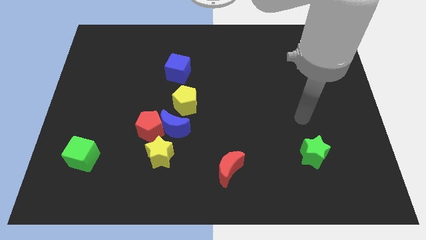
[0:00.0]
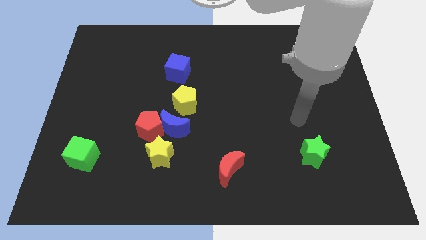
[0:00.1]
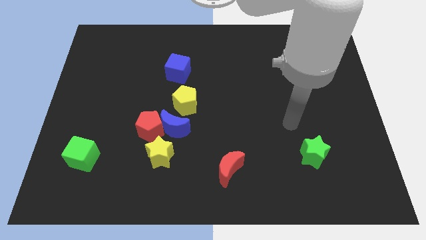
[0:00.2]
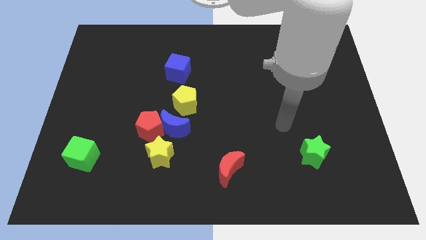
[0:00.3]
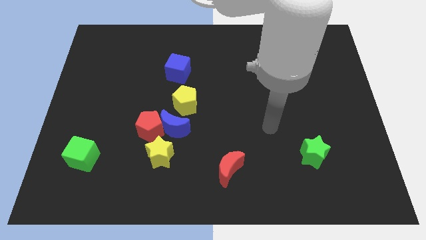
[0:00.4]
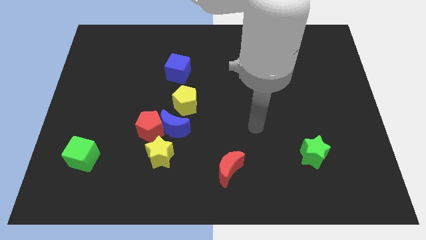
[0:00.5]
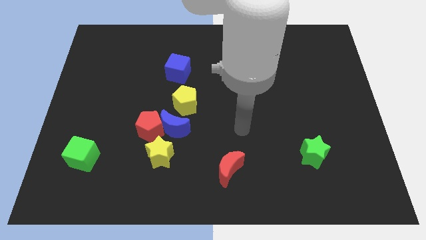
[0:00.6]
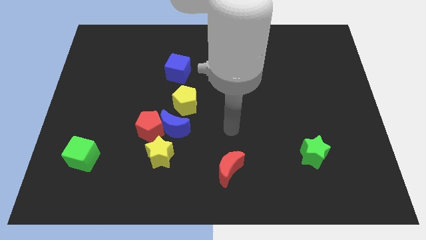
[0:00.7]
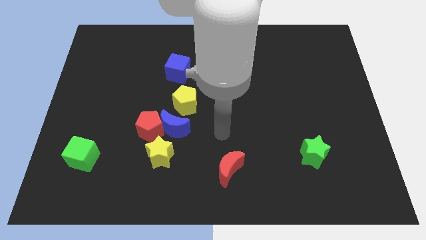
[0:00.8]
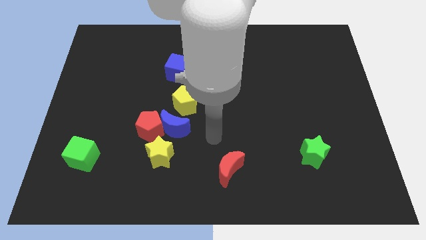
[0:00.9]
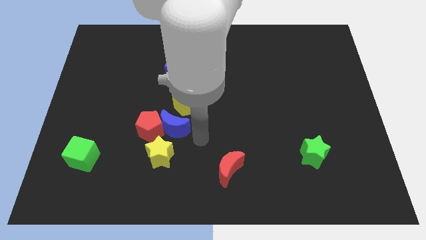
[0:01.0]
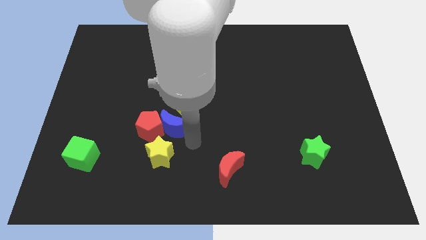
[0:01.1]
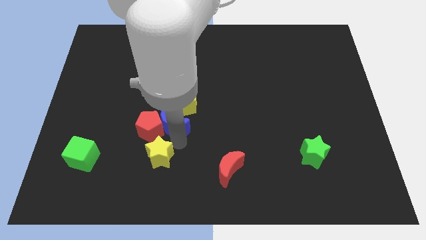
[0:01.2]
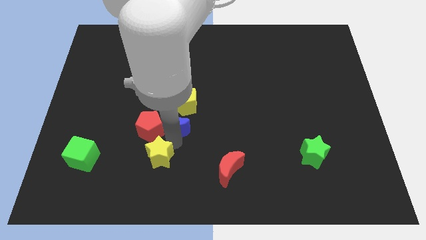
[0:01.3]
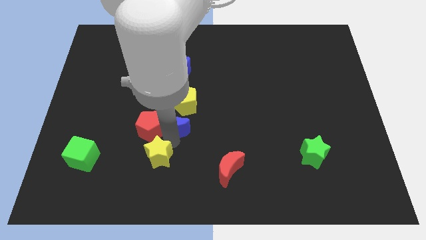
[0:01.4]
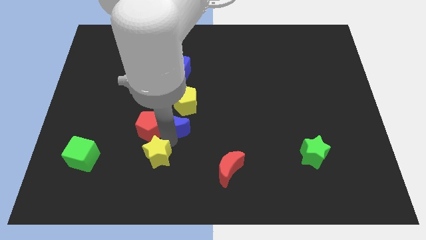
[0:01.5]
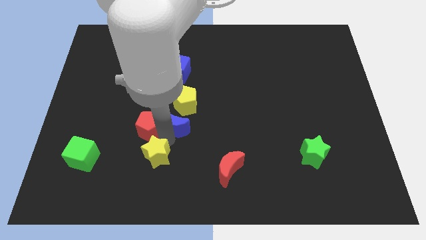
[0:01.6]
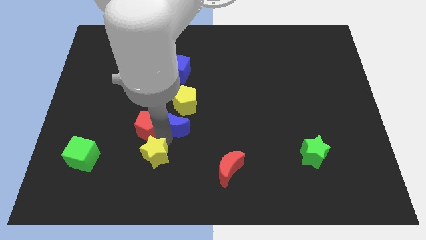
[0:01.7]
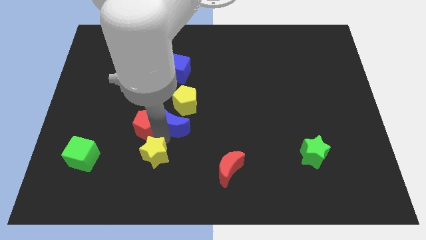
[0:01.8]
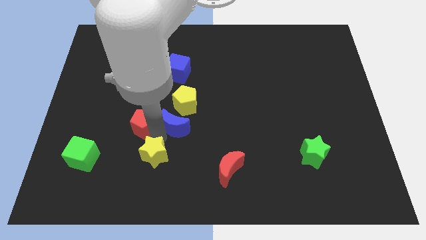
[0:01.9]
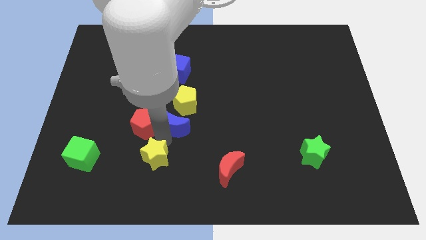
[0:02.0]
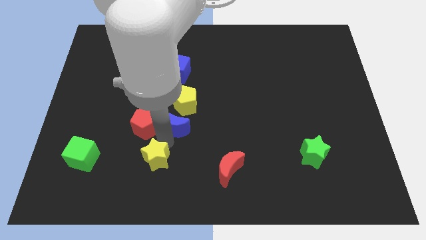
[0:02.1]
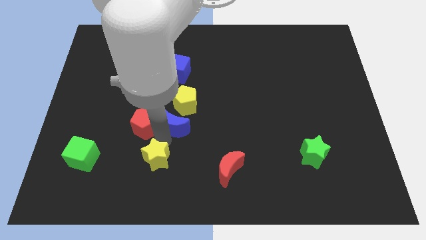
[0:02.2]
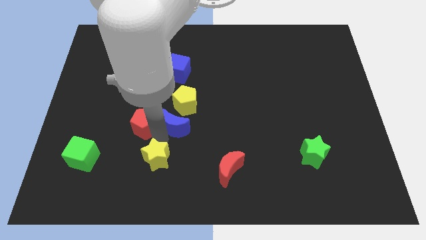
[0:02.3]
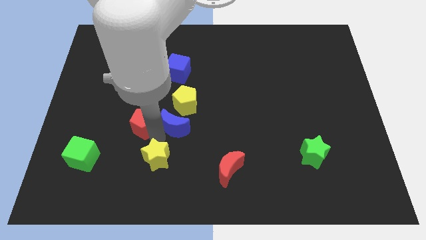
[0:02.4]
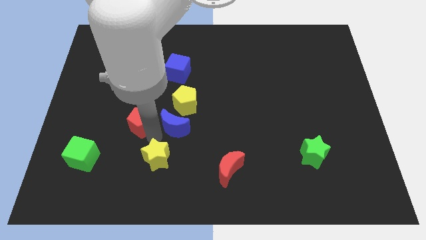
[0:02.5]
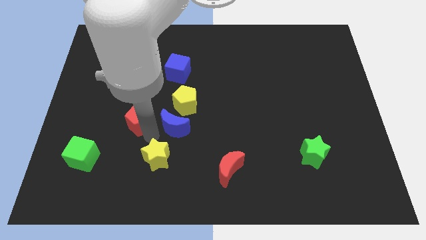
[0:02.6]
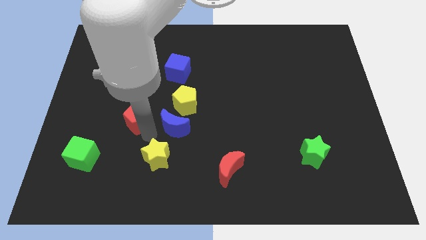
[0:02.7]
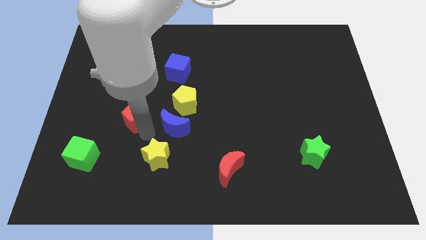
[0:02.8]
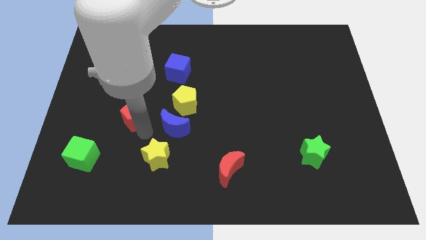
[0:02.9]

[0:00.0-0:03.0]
move the red pentagon away from the blue moon and yellow star

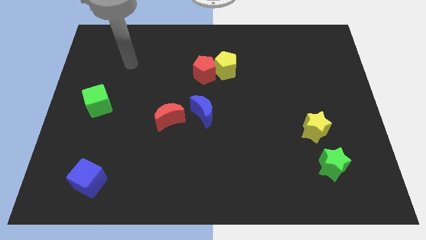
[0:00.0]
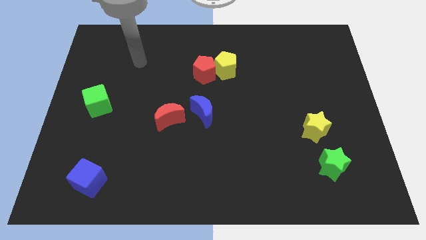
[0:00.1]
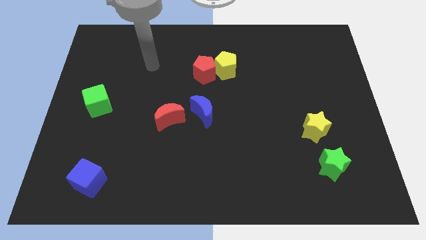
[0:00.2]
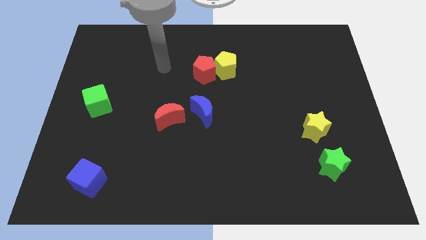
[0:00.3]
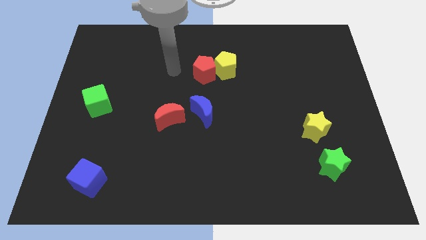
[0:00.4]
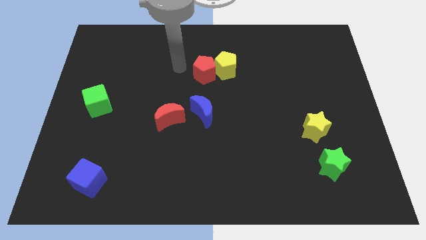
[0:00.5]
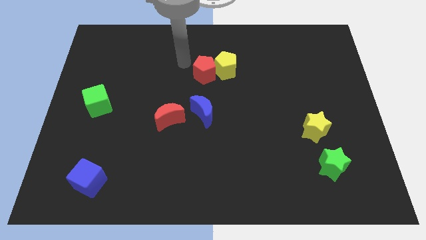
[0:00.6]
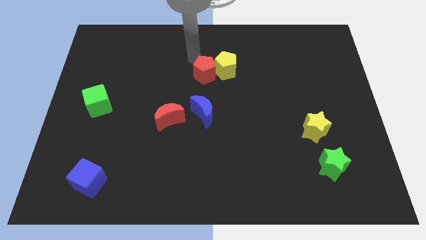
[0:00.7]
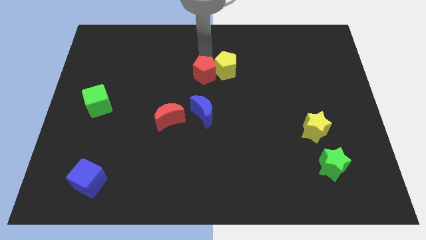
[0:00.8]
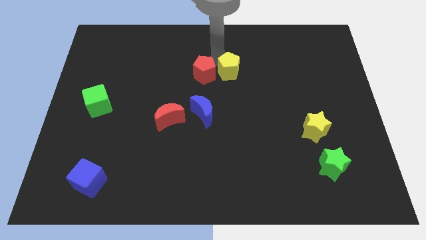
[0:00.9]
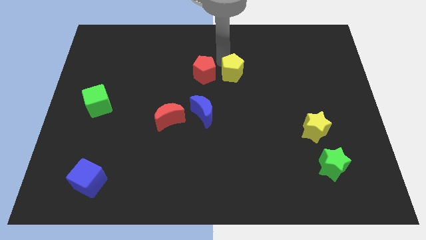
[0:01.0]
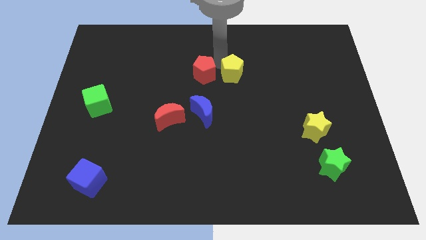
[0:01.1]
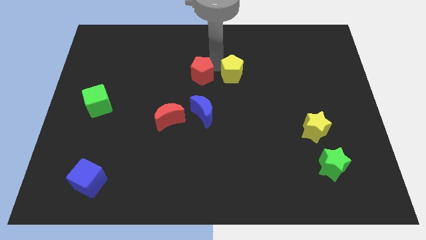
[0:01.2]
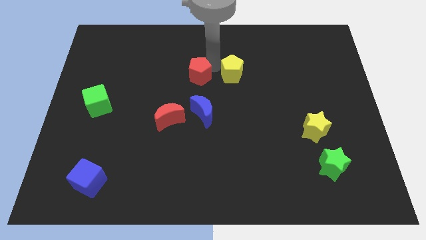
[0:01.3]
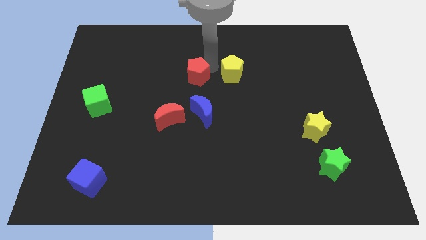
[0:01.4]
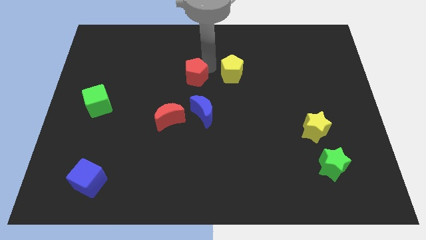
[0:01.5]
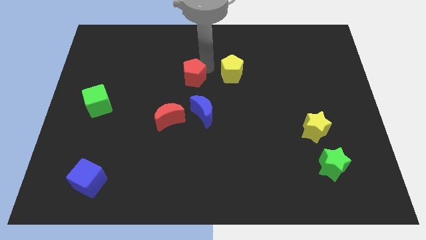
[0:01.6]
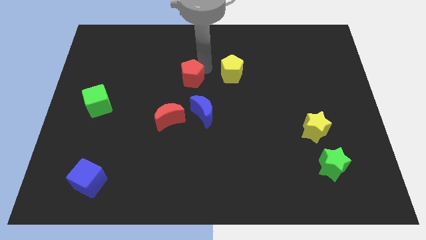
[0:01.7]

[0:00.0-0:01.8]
separate the red pentagon from the yellow pentagon

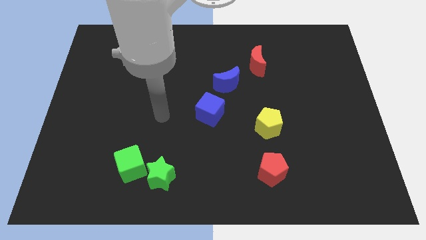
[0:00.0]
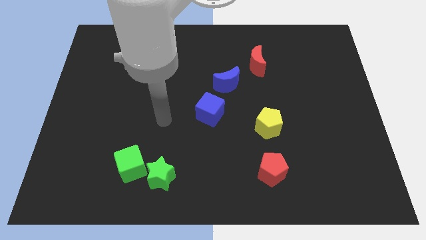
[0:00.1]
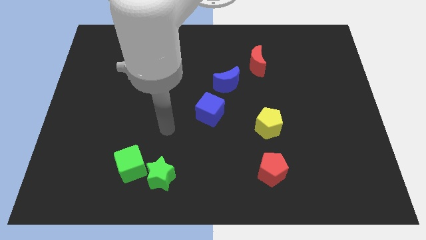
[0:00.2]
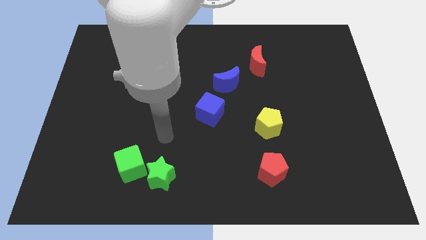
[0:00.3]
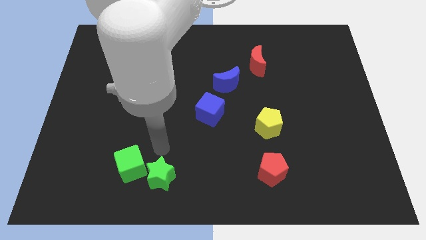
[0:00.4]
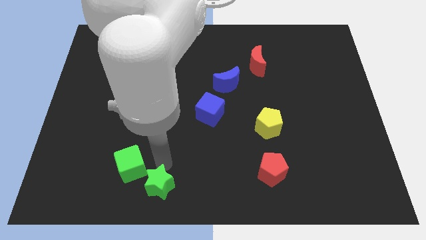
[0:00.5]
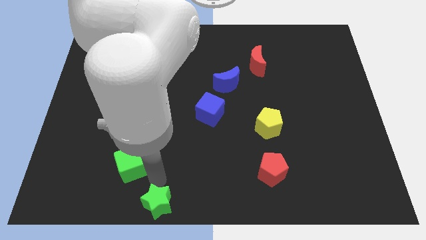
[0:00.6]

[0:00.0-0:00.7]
pull the green cube apart from the green star

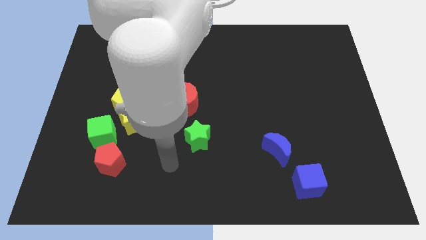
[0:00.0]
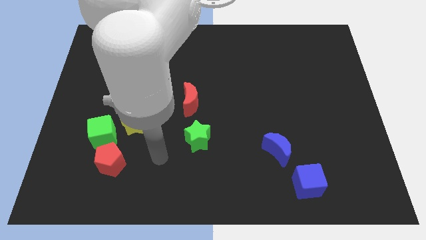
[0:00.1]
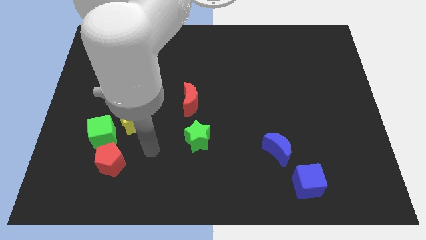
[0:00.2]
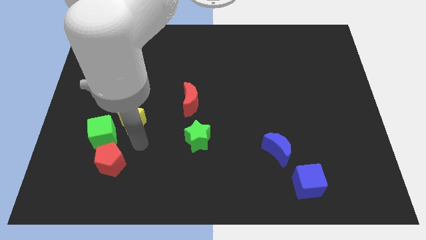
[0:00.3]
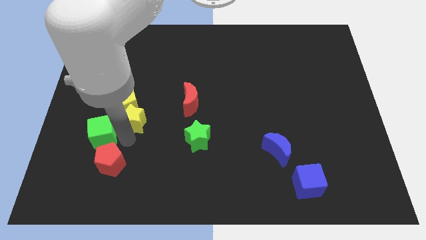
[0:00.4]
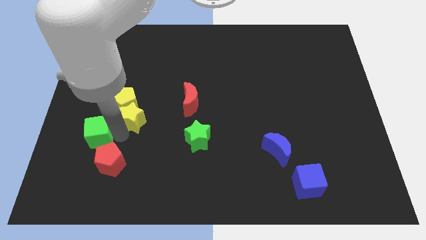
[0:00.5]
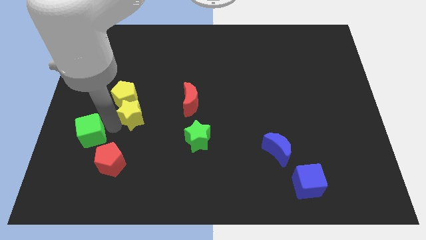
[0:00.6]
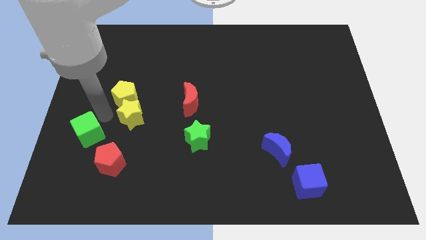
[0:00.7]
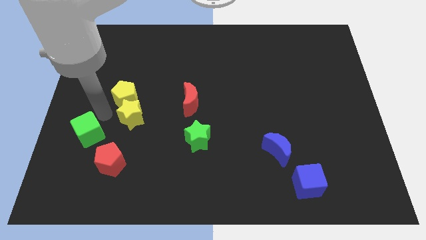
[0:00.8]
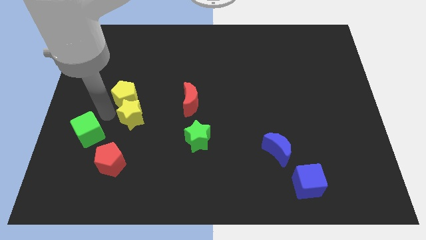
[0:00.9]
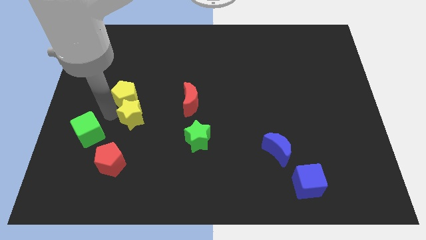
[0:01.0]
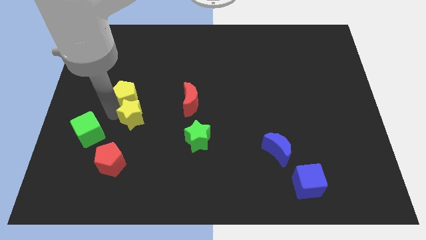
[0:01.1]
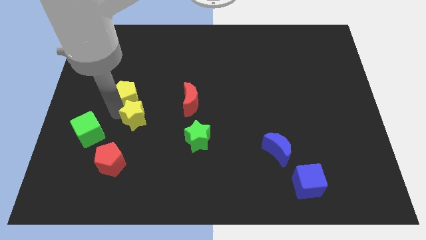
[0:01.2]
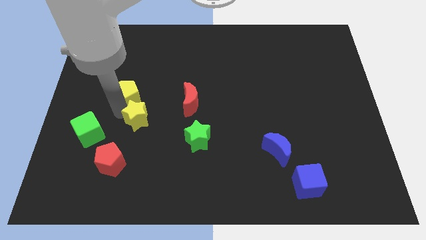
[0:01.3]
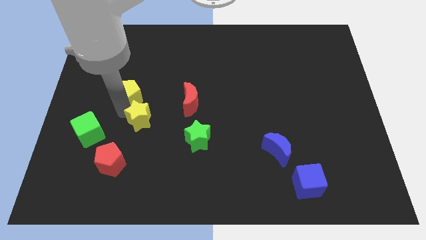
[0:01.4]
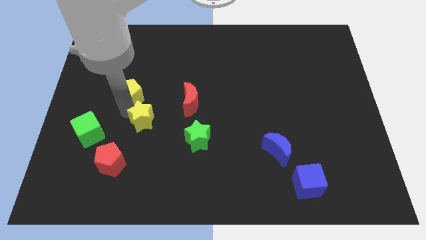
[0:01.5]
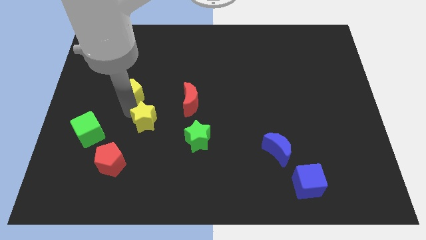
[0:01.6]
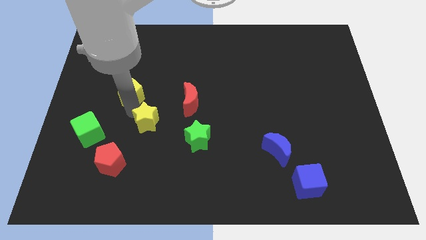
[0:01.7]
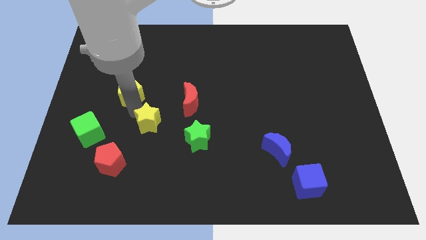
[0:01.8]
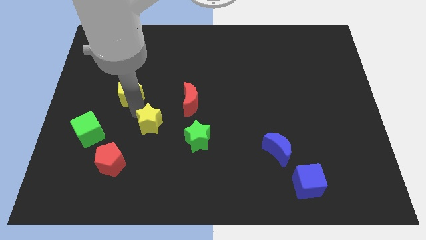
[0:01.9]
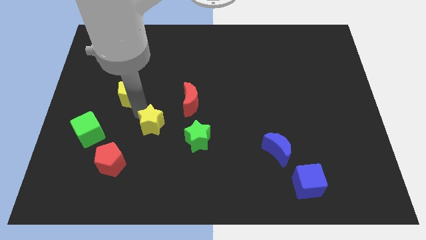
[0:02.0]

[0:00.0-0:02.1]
pull the yellow star apart from the yellow pentagon and green cube

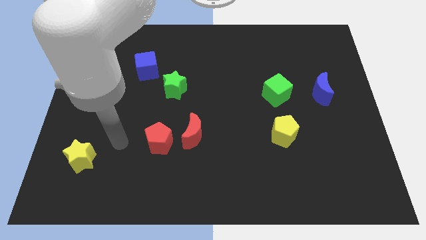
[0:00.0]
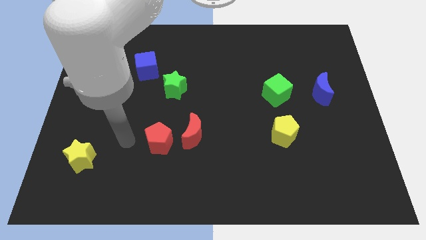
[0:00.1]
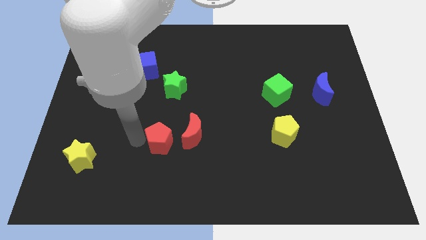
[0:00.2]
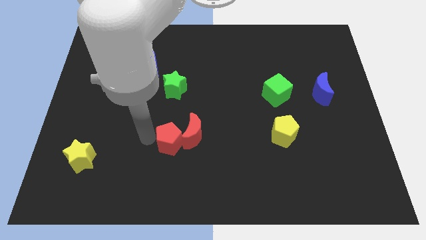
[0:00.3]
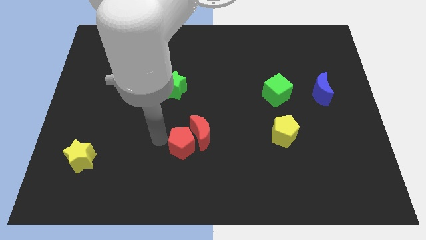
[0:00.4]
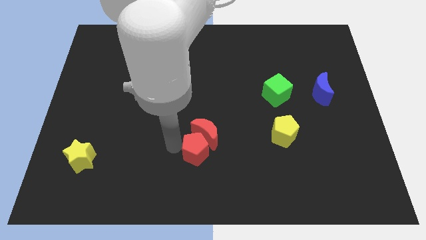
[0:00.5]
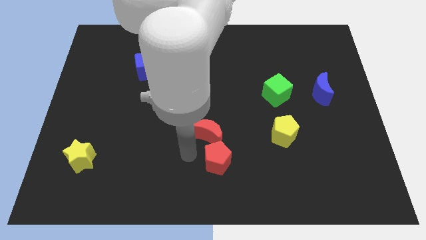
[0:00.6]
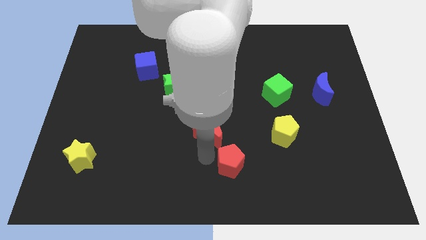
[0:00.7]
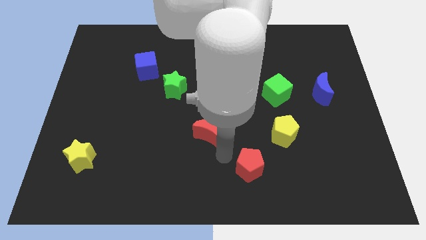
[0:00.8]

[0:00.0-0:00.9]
move the red moon away from the red pentagon

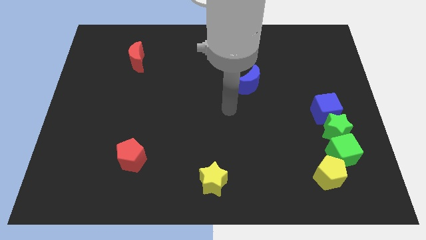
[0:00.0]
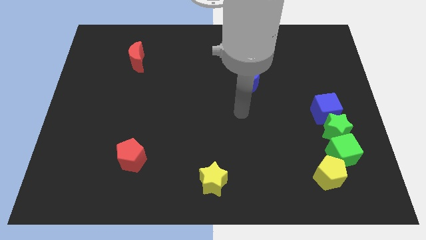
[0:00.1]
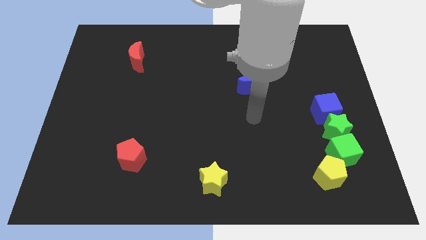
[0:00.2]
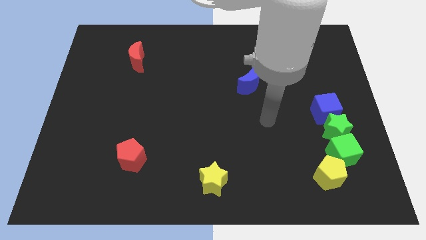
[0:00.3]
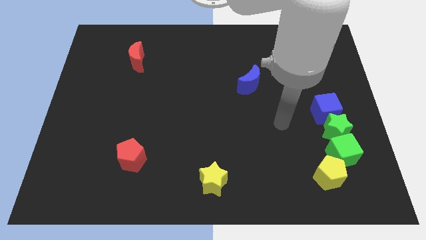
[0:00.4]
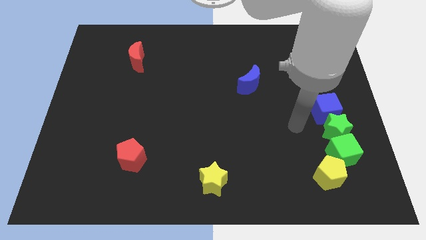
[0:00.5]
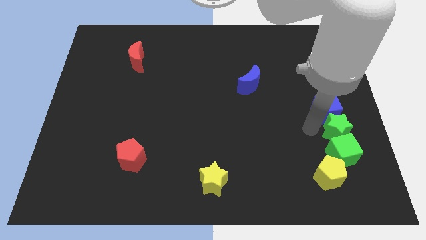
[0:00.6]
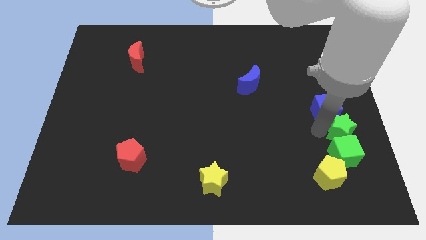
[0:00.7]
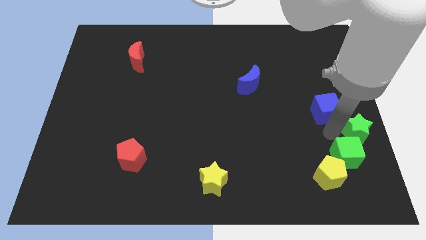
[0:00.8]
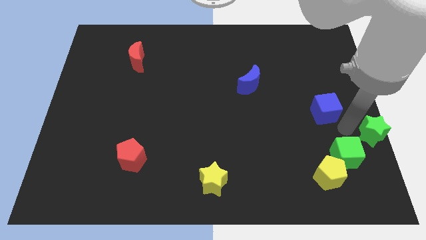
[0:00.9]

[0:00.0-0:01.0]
separate the blue cube from the green star
